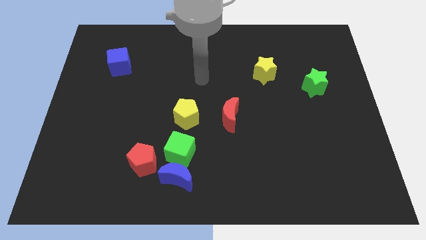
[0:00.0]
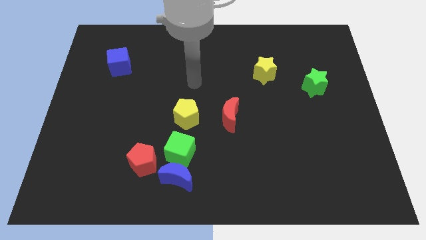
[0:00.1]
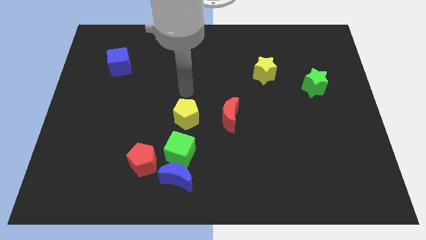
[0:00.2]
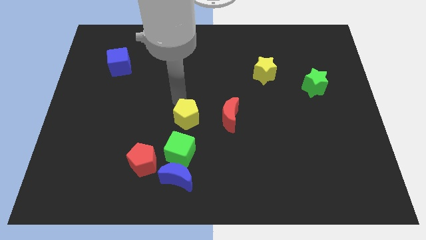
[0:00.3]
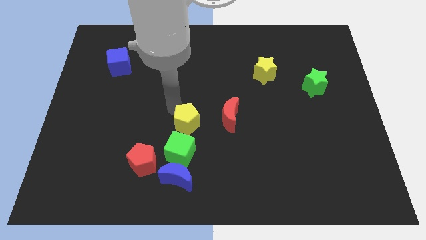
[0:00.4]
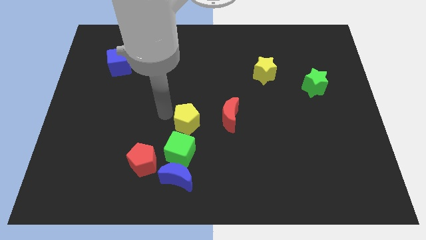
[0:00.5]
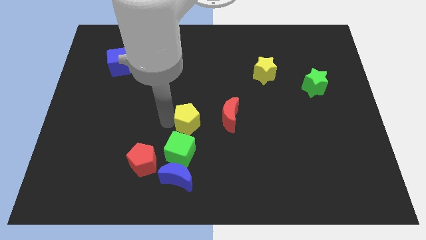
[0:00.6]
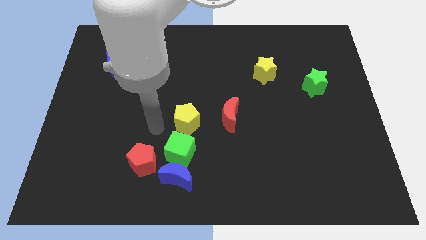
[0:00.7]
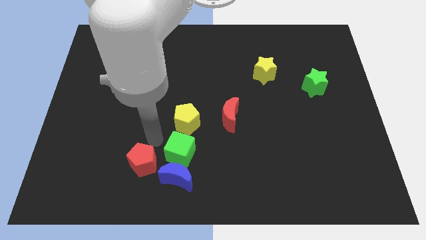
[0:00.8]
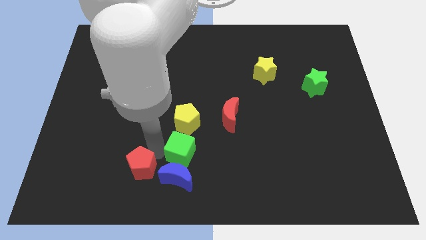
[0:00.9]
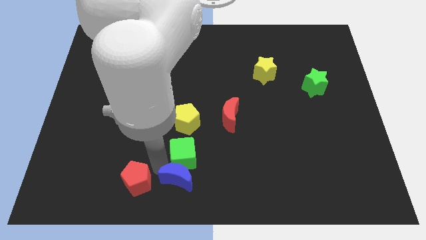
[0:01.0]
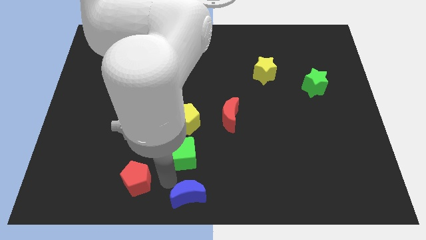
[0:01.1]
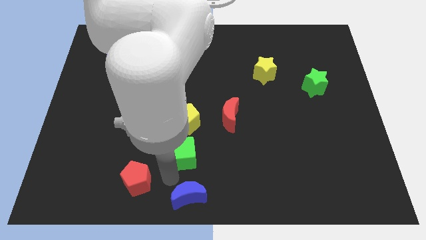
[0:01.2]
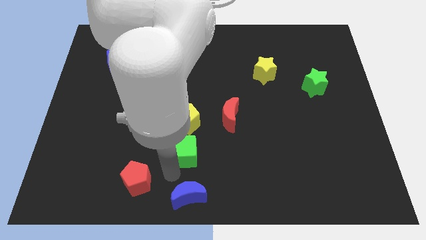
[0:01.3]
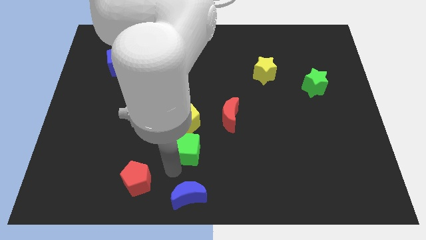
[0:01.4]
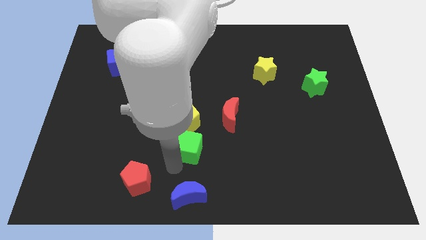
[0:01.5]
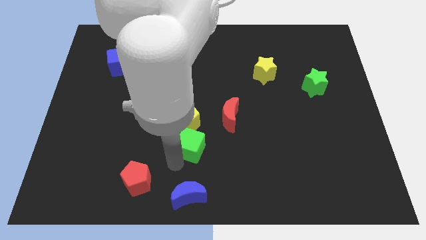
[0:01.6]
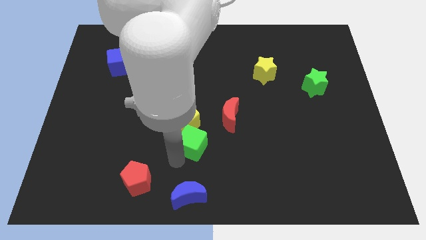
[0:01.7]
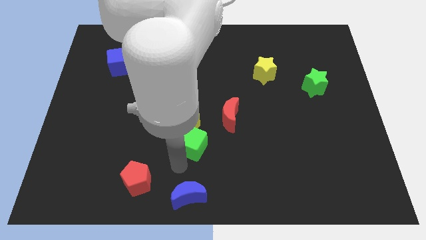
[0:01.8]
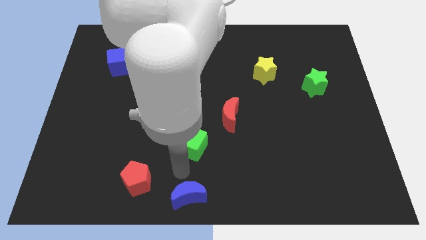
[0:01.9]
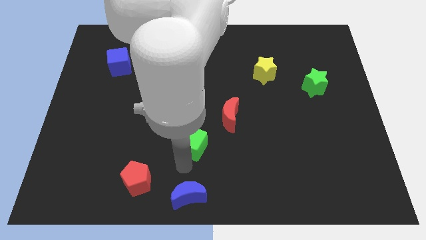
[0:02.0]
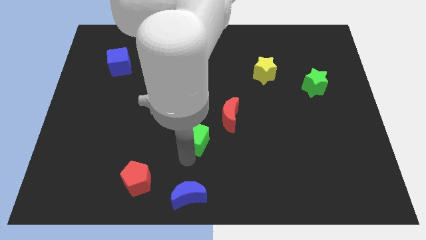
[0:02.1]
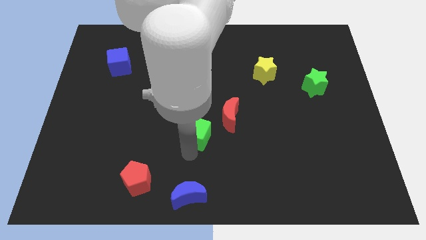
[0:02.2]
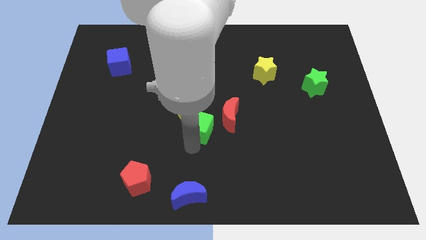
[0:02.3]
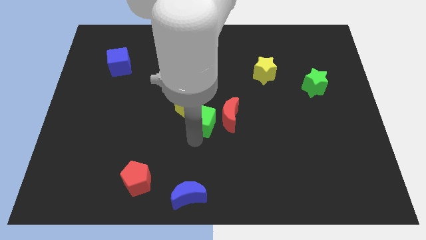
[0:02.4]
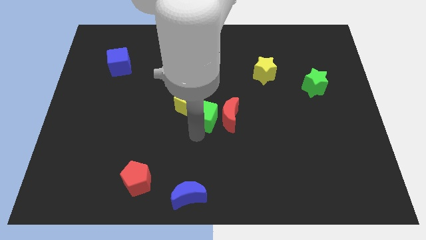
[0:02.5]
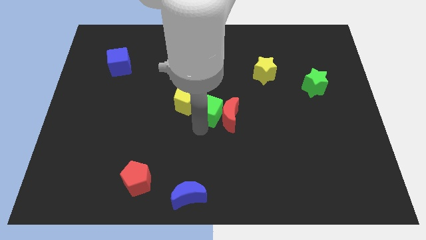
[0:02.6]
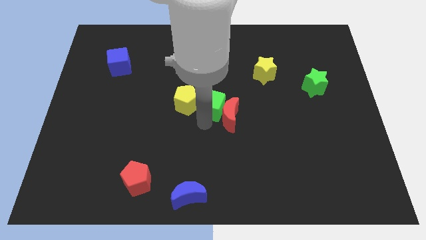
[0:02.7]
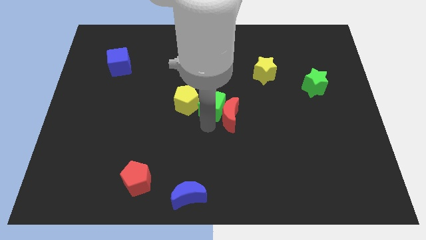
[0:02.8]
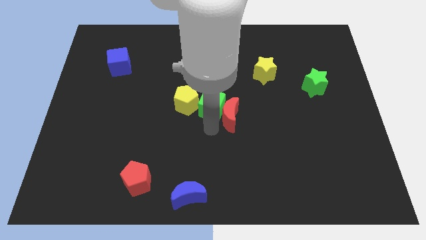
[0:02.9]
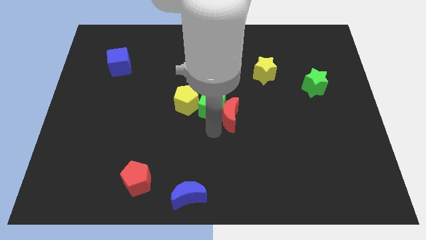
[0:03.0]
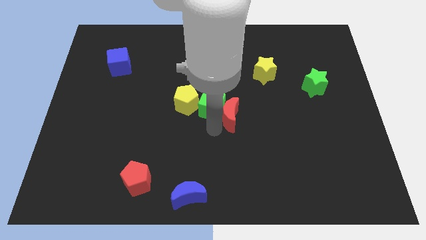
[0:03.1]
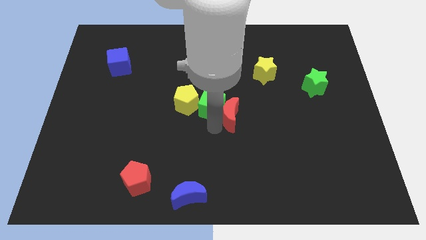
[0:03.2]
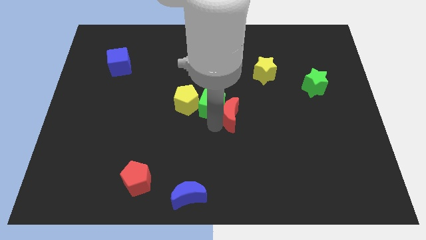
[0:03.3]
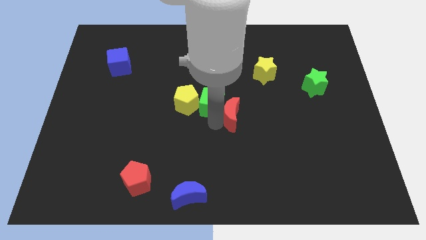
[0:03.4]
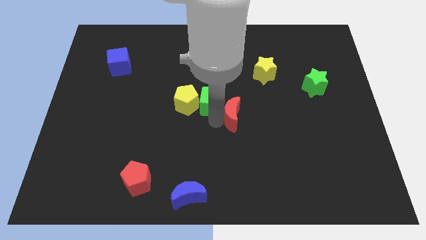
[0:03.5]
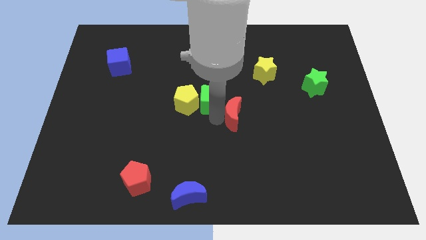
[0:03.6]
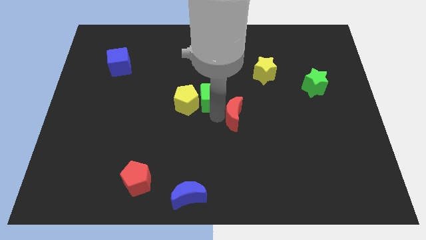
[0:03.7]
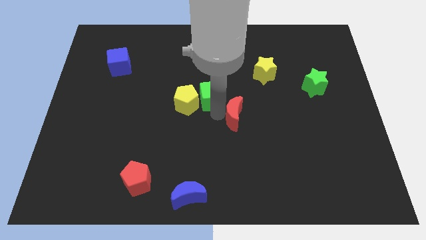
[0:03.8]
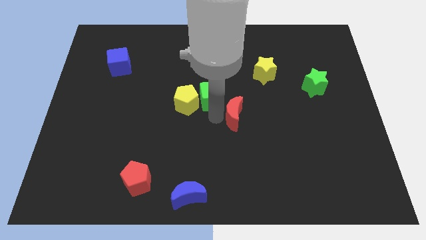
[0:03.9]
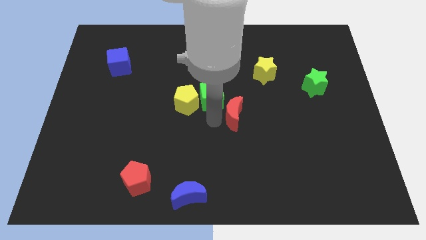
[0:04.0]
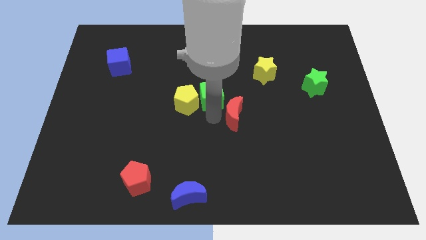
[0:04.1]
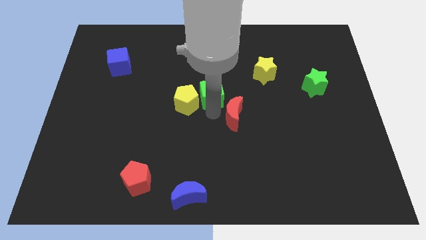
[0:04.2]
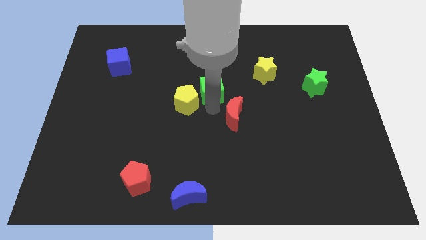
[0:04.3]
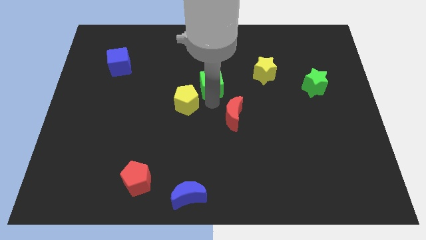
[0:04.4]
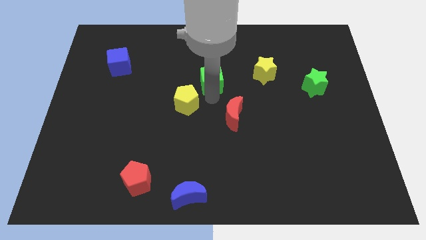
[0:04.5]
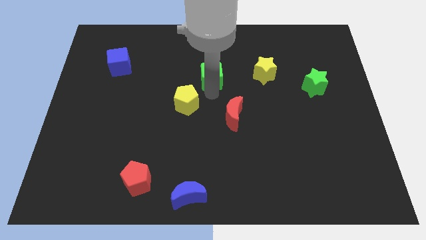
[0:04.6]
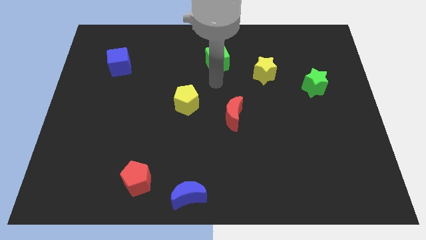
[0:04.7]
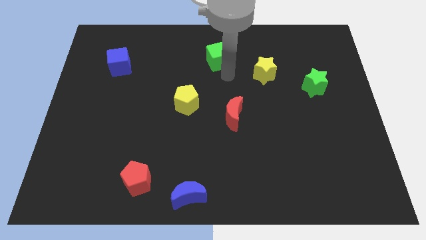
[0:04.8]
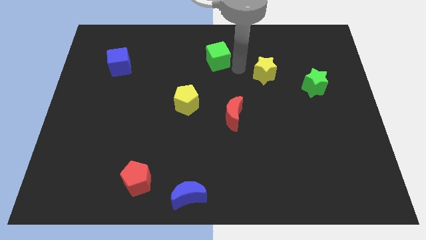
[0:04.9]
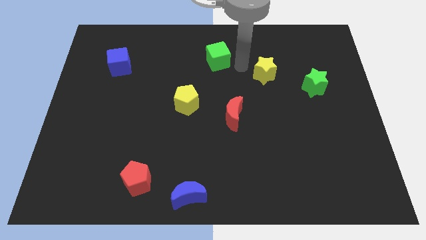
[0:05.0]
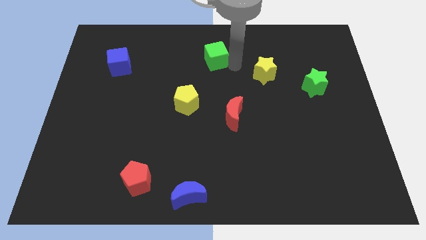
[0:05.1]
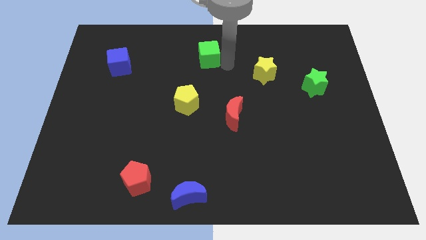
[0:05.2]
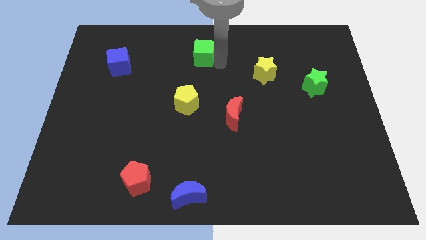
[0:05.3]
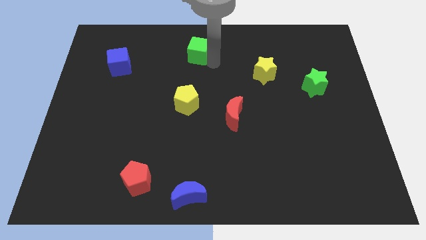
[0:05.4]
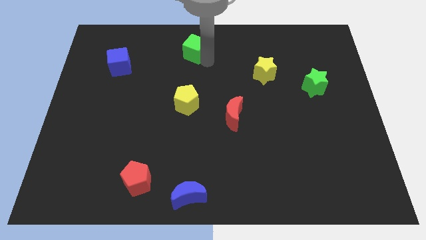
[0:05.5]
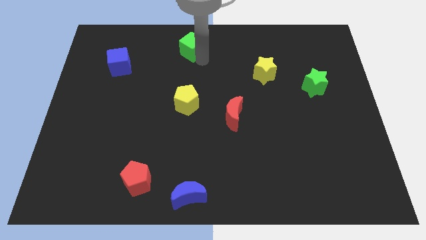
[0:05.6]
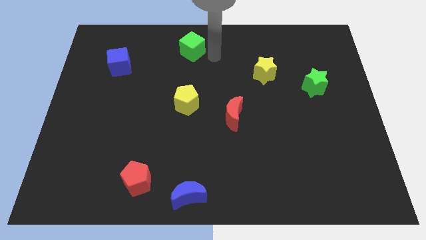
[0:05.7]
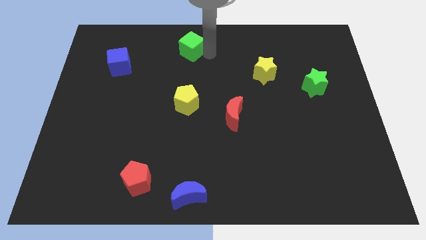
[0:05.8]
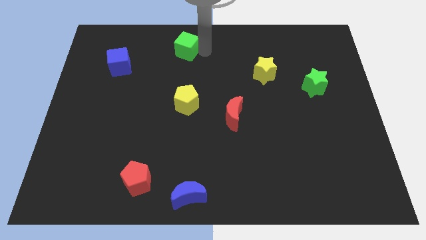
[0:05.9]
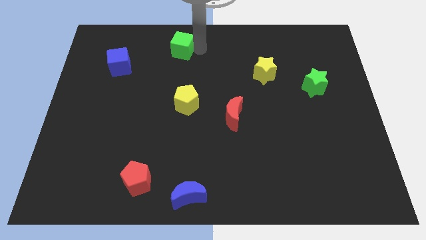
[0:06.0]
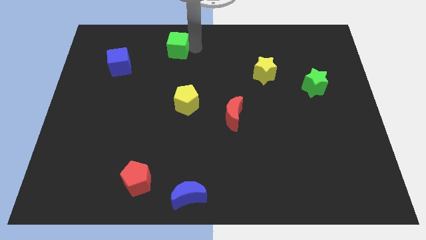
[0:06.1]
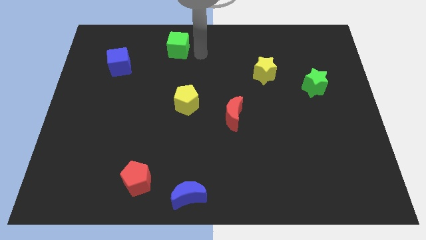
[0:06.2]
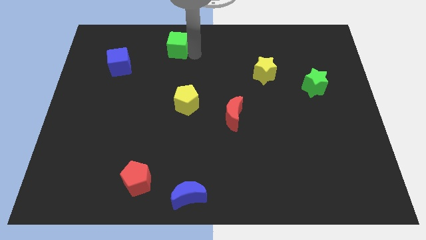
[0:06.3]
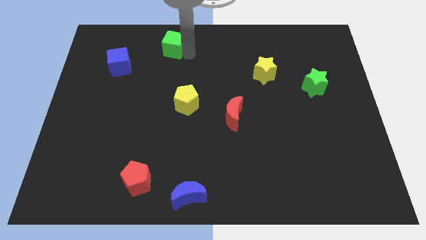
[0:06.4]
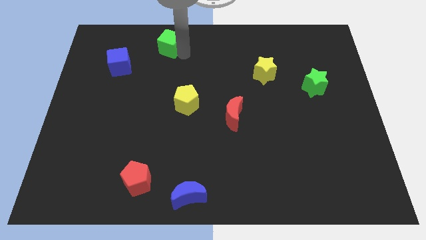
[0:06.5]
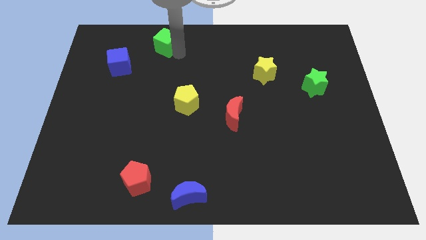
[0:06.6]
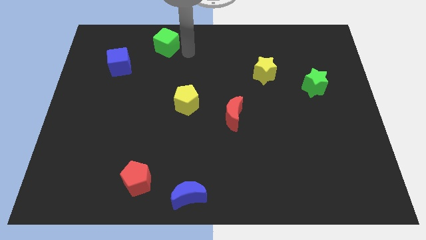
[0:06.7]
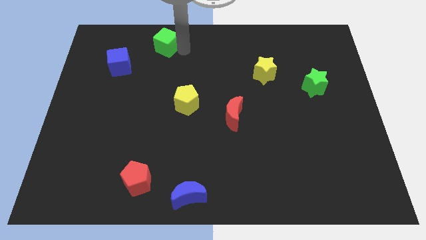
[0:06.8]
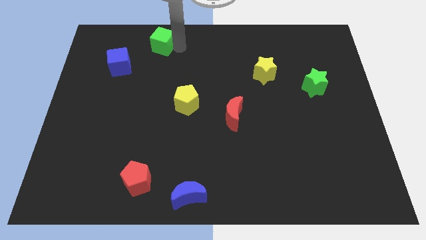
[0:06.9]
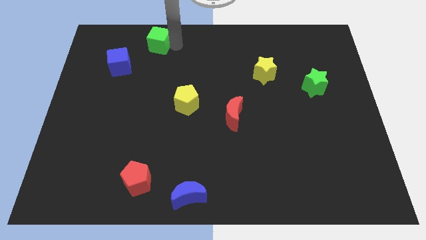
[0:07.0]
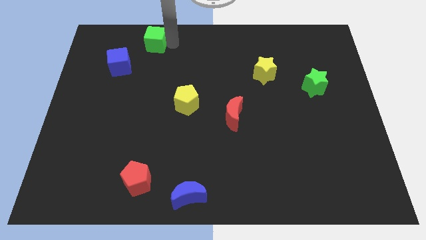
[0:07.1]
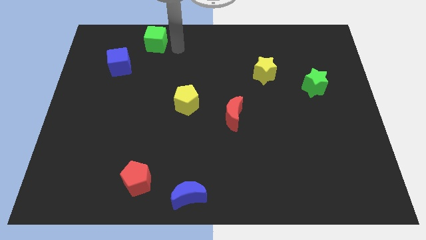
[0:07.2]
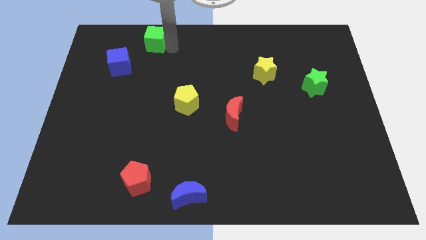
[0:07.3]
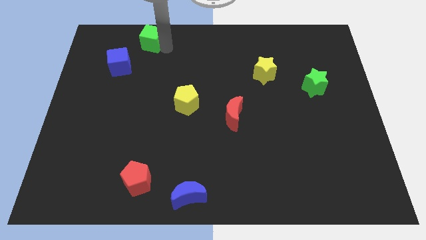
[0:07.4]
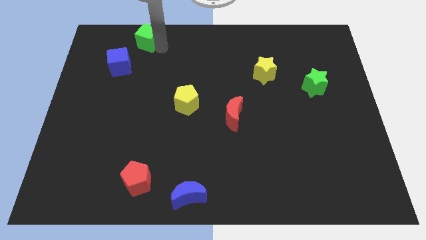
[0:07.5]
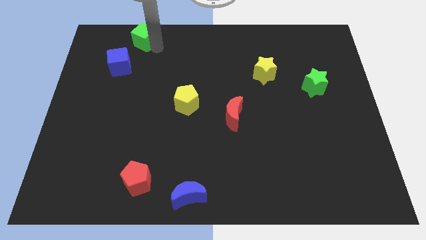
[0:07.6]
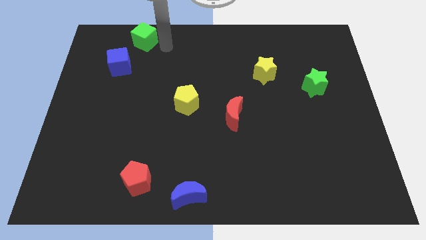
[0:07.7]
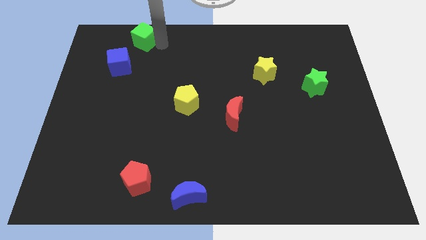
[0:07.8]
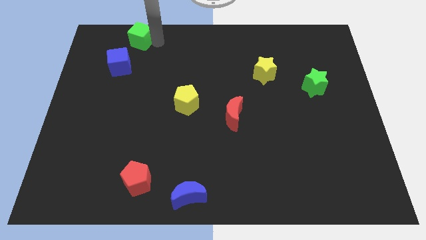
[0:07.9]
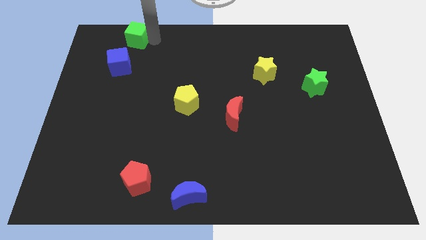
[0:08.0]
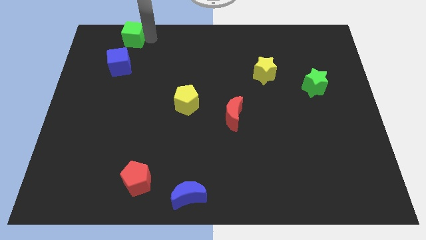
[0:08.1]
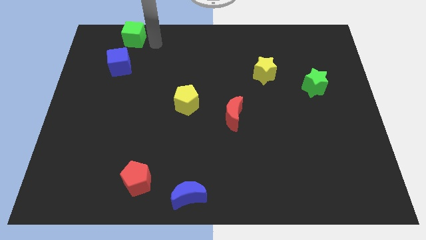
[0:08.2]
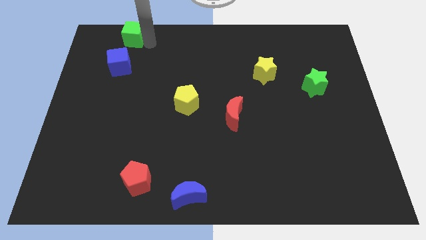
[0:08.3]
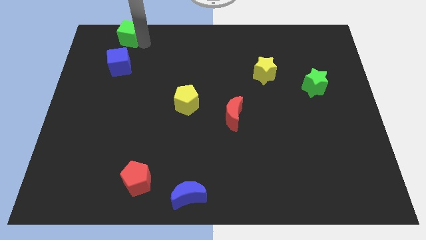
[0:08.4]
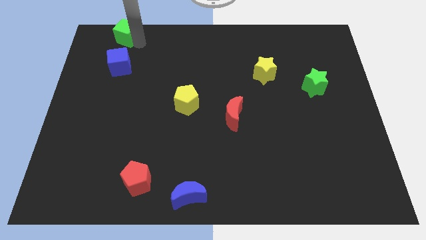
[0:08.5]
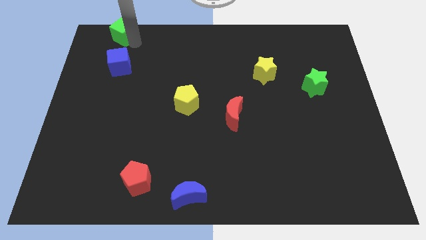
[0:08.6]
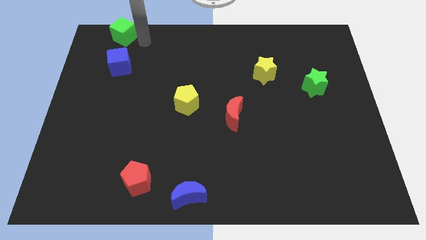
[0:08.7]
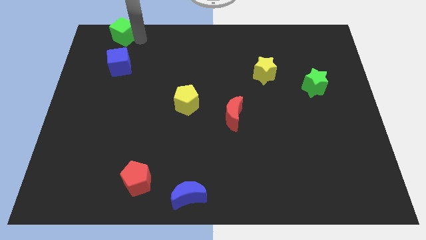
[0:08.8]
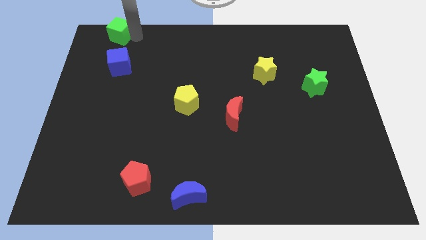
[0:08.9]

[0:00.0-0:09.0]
slide the green cube to the top left
